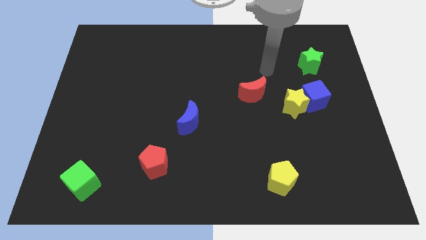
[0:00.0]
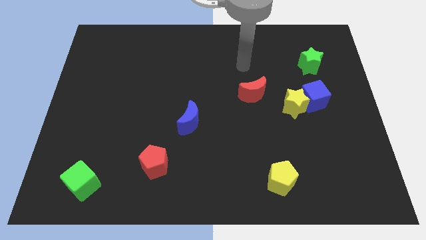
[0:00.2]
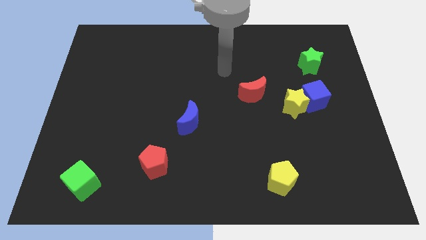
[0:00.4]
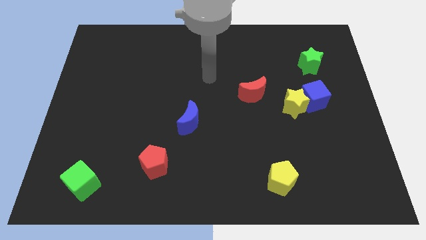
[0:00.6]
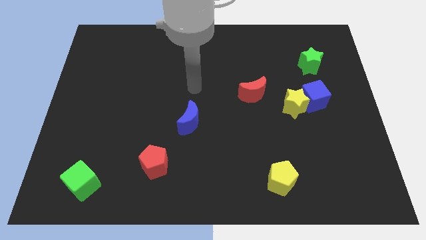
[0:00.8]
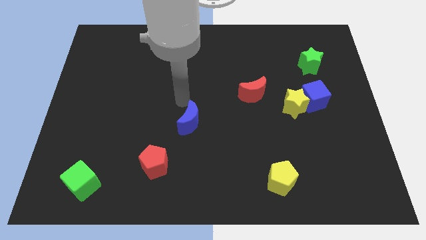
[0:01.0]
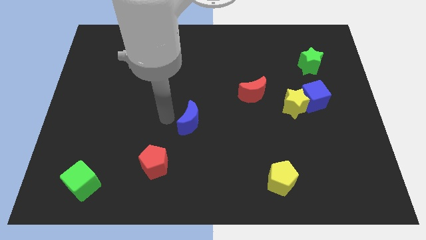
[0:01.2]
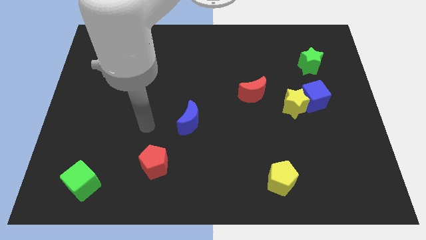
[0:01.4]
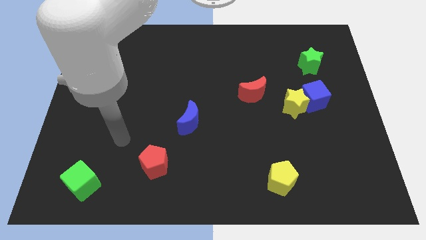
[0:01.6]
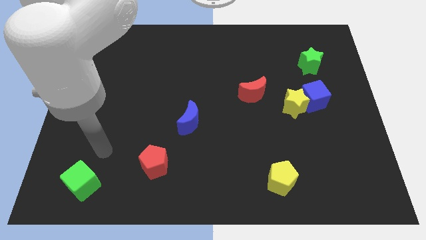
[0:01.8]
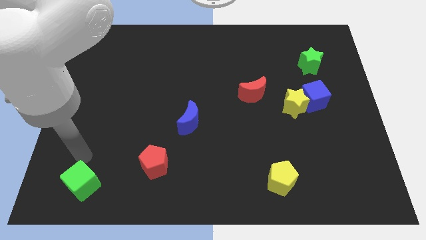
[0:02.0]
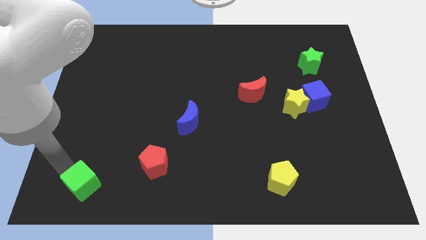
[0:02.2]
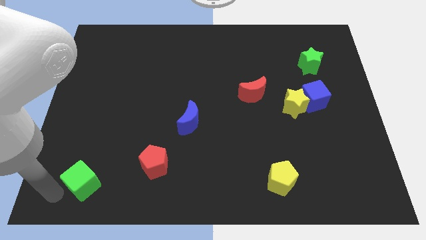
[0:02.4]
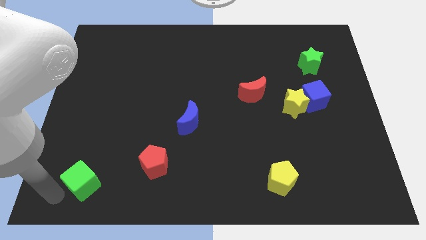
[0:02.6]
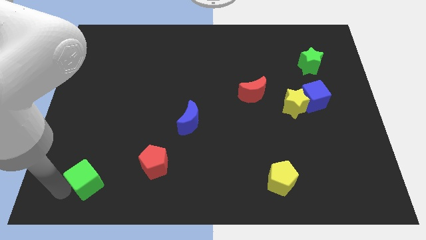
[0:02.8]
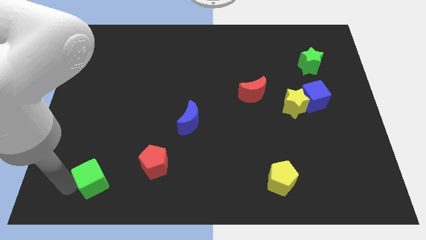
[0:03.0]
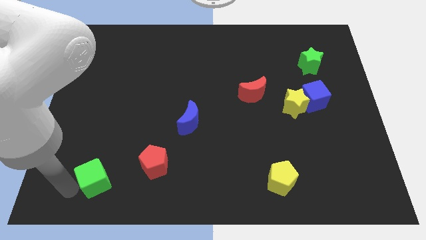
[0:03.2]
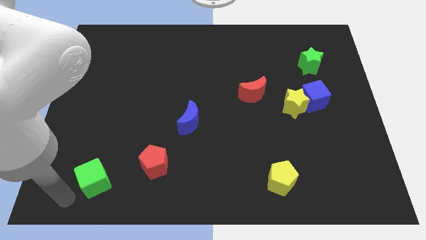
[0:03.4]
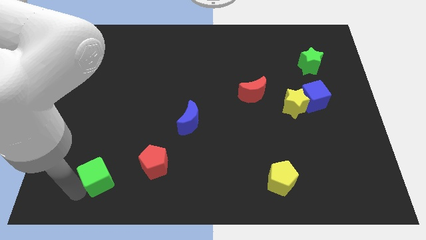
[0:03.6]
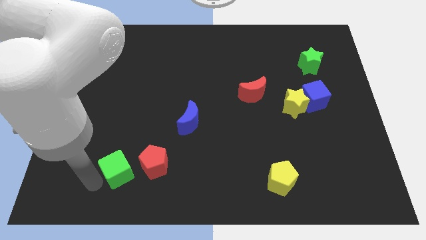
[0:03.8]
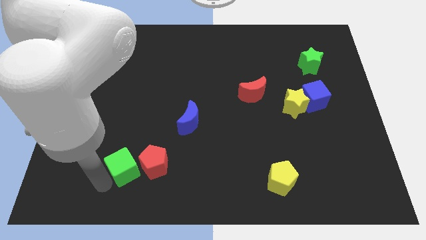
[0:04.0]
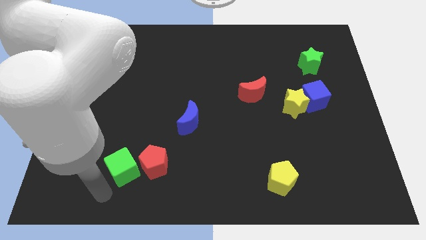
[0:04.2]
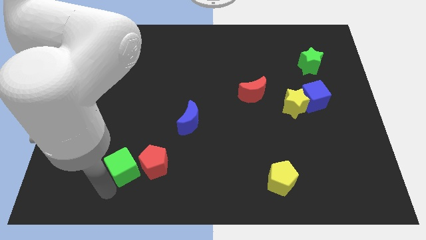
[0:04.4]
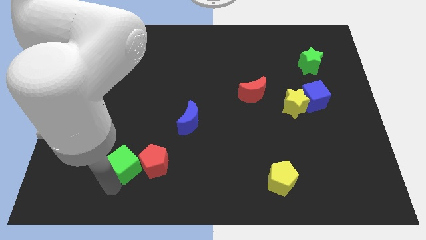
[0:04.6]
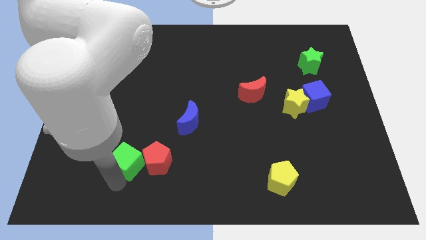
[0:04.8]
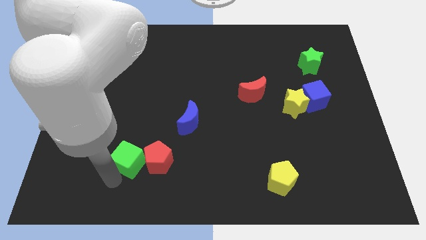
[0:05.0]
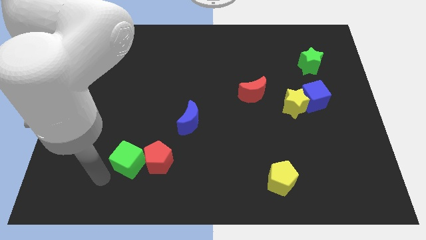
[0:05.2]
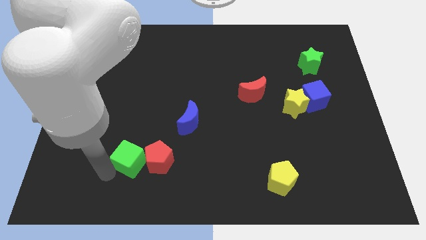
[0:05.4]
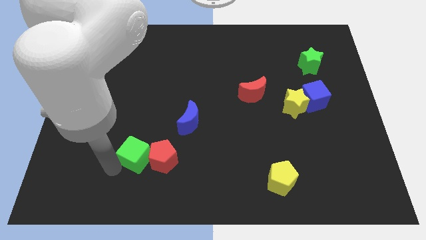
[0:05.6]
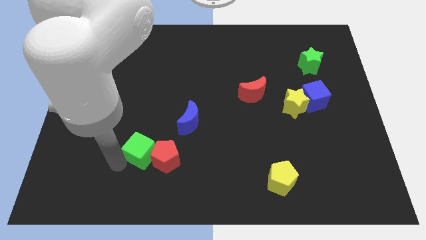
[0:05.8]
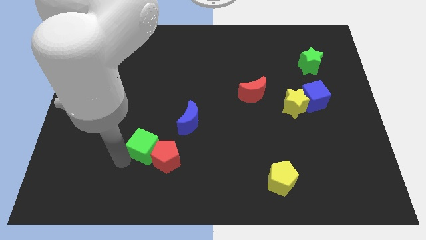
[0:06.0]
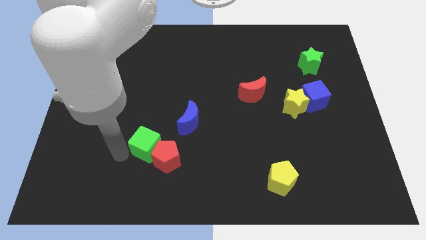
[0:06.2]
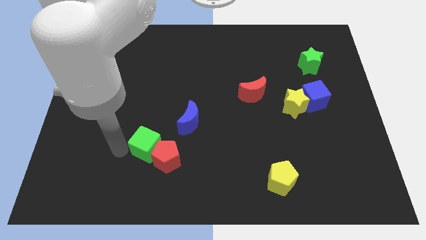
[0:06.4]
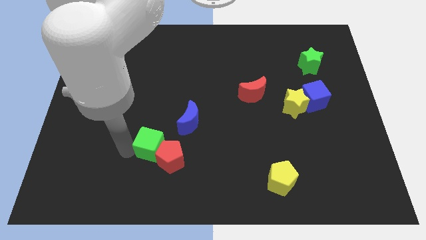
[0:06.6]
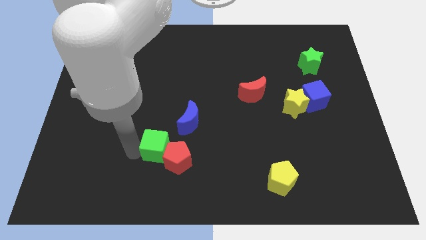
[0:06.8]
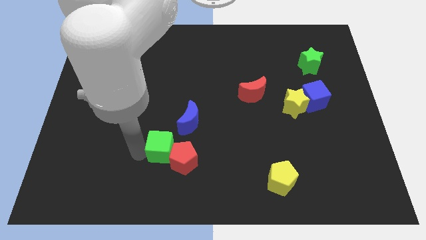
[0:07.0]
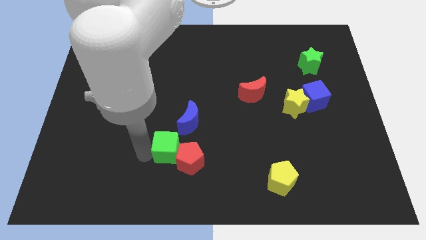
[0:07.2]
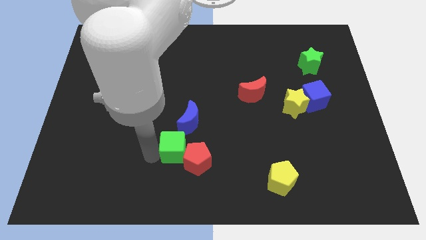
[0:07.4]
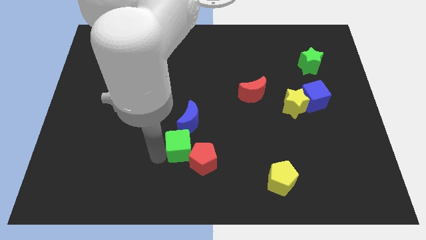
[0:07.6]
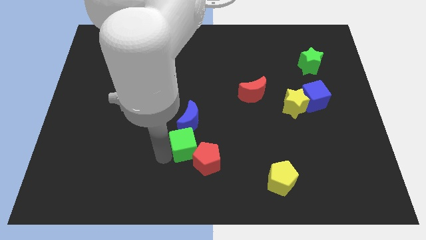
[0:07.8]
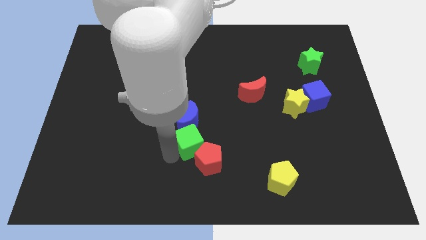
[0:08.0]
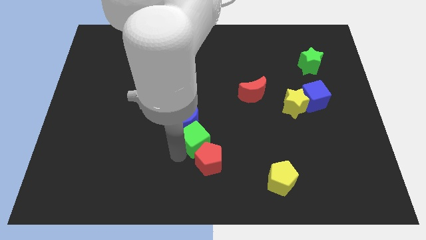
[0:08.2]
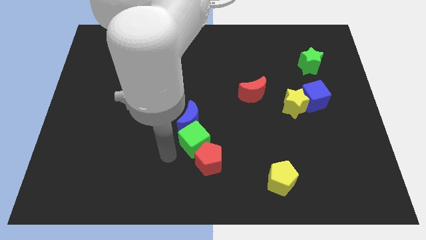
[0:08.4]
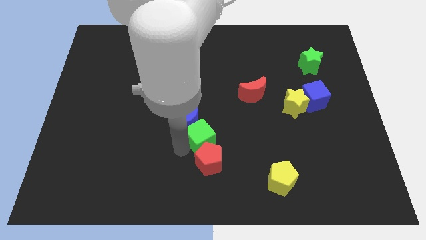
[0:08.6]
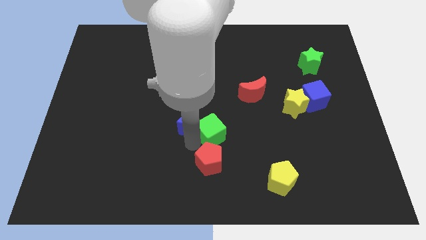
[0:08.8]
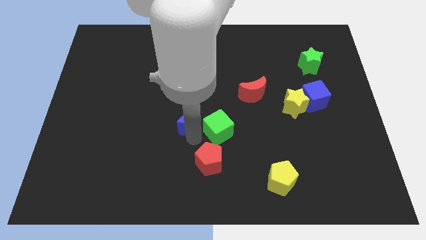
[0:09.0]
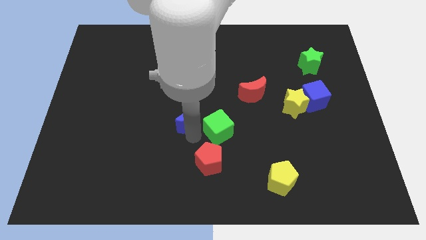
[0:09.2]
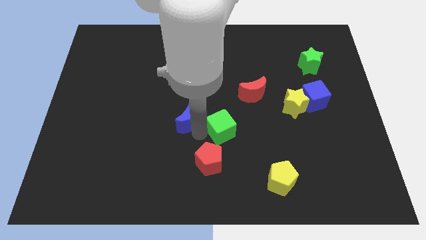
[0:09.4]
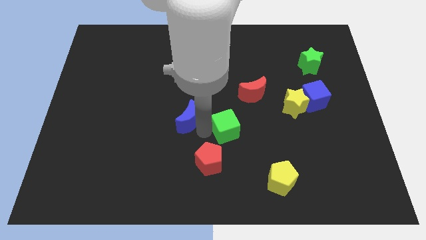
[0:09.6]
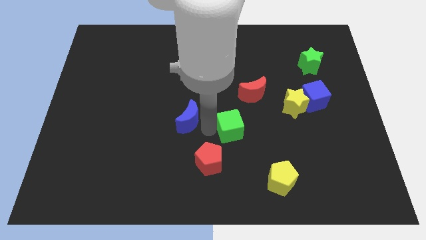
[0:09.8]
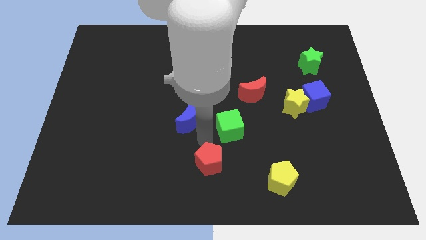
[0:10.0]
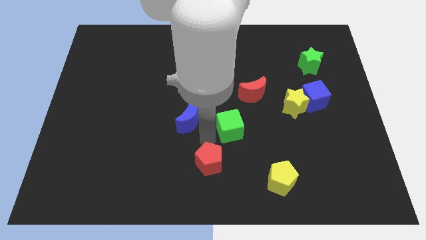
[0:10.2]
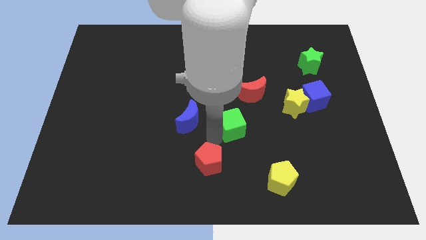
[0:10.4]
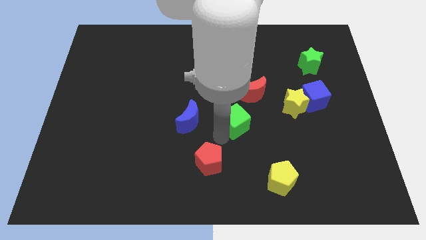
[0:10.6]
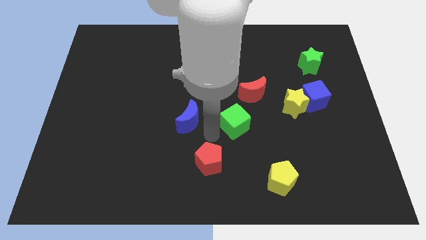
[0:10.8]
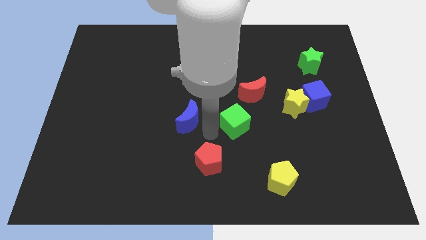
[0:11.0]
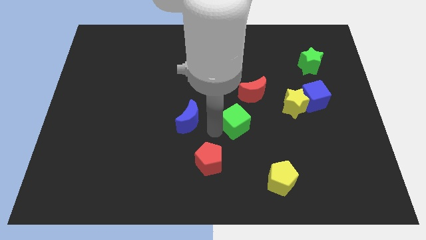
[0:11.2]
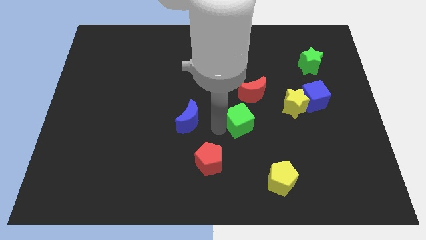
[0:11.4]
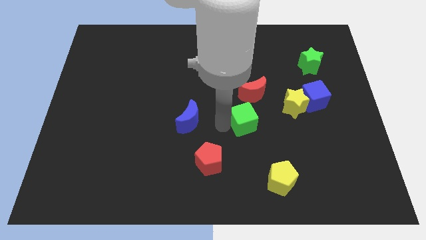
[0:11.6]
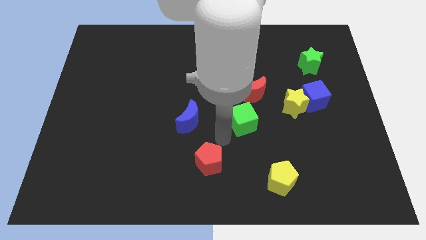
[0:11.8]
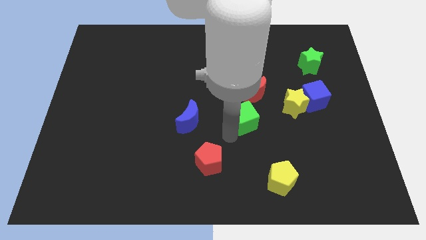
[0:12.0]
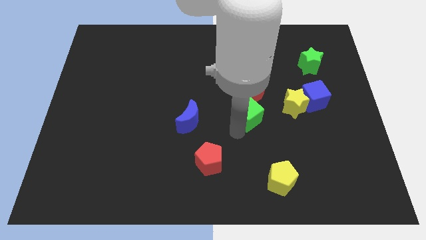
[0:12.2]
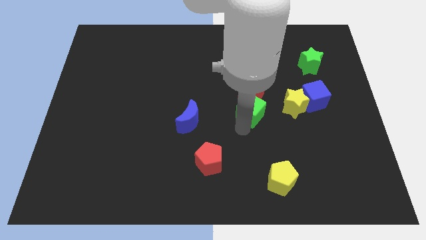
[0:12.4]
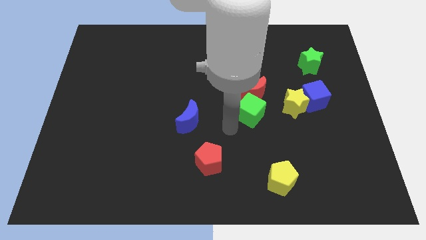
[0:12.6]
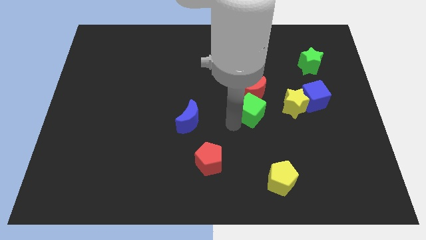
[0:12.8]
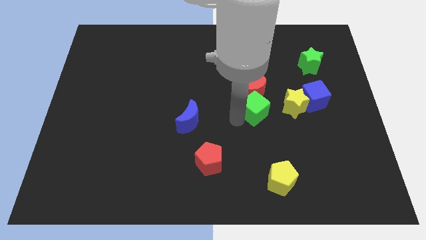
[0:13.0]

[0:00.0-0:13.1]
slide the green cube to the left side of the blue cube

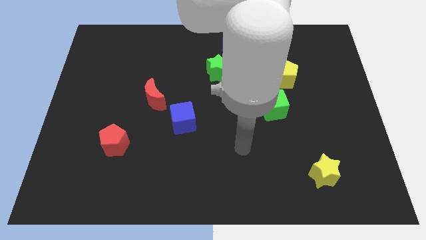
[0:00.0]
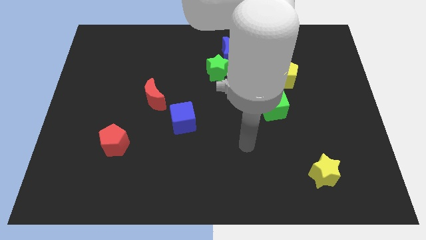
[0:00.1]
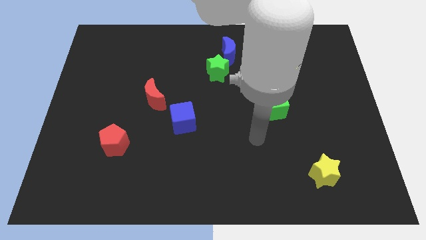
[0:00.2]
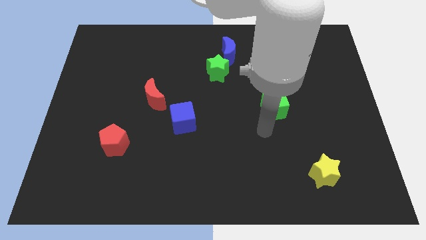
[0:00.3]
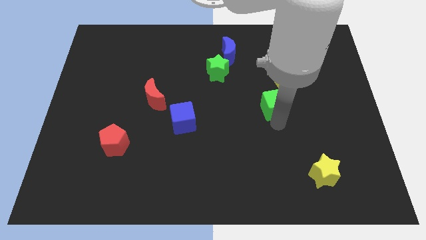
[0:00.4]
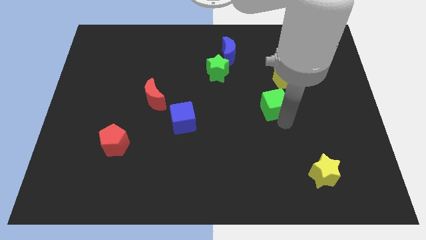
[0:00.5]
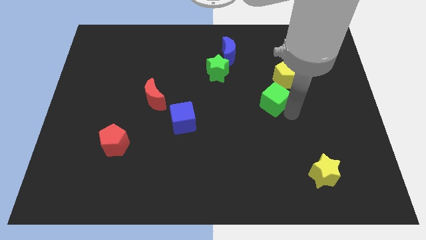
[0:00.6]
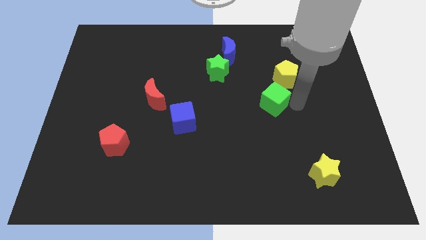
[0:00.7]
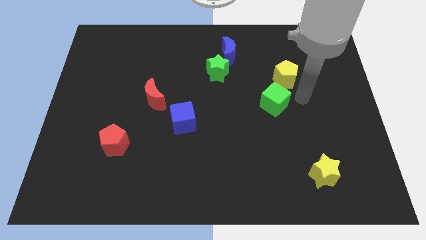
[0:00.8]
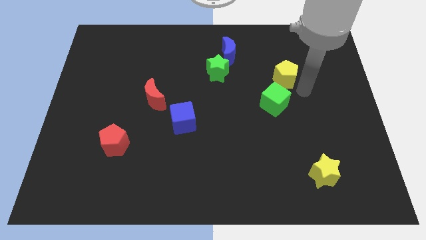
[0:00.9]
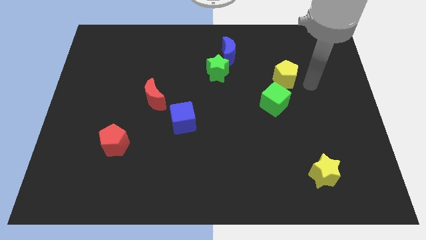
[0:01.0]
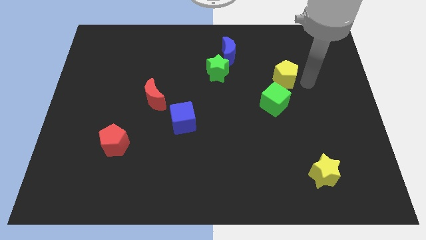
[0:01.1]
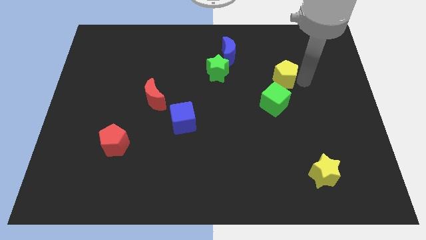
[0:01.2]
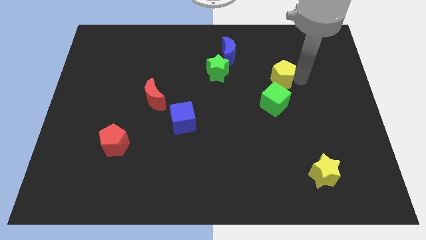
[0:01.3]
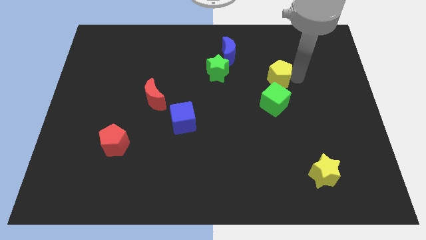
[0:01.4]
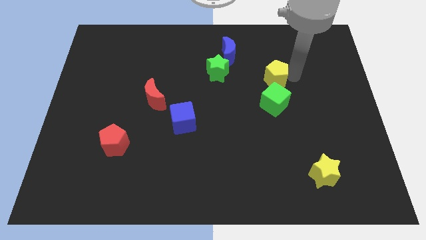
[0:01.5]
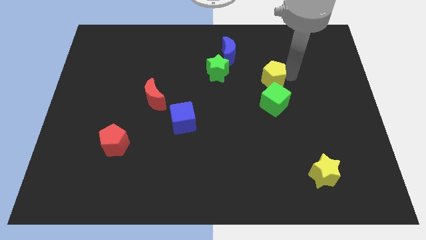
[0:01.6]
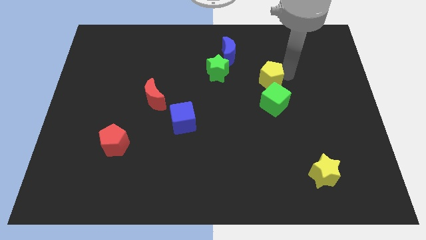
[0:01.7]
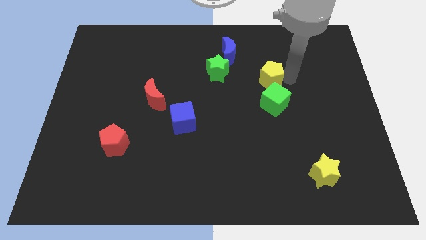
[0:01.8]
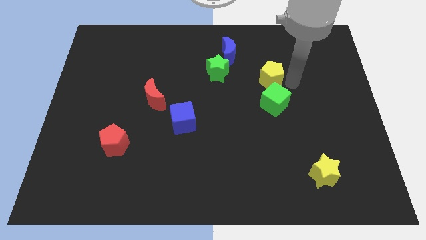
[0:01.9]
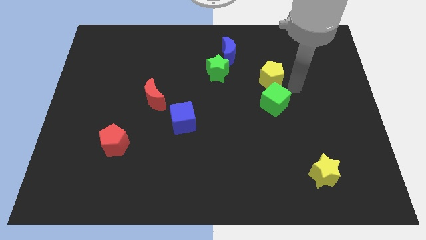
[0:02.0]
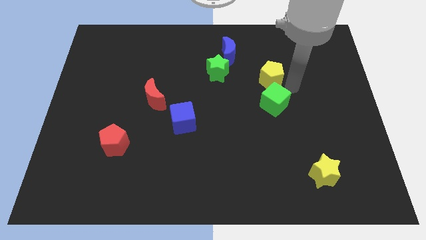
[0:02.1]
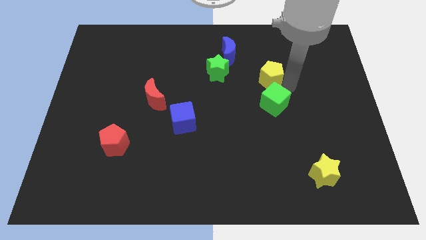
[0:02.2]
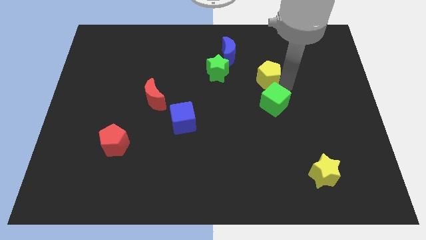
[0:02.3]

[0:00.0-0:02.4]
move the yellow pentagon to the bottom right of the blue moon
